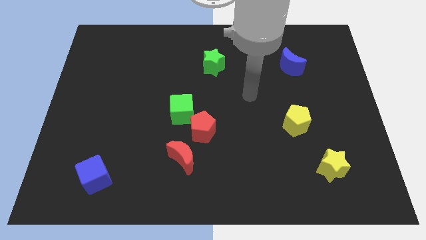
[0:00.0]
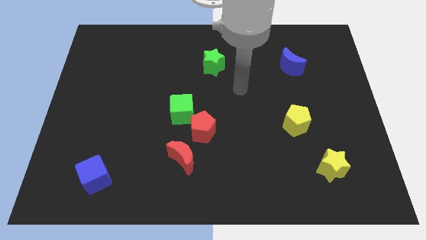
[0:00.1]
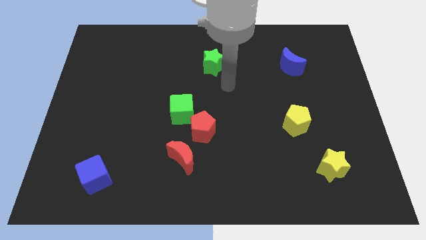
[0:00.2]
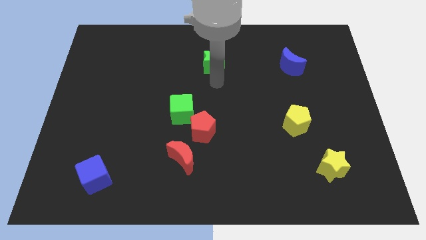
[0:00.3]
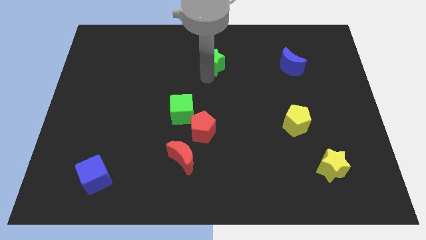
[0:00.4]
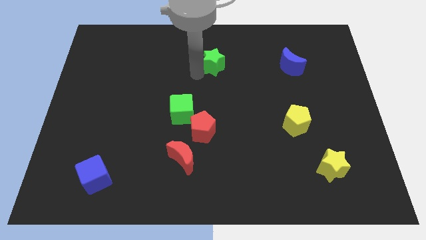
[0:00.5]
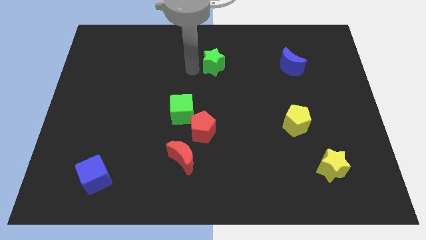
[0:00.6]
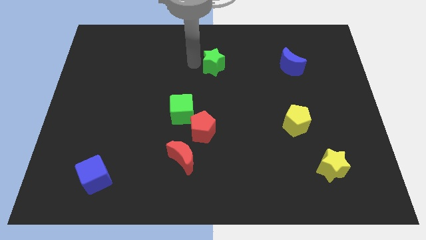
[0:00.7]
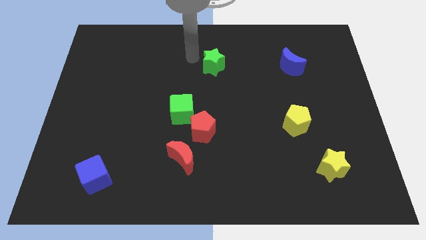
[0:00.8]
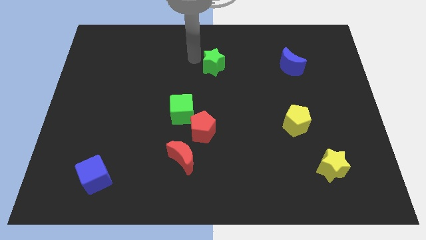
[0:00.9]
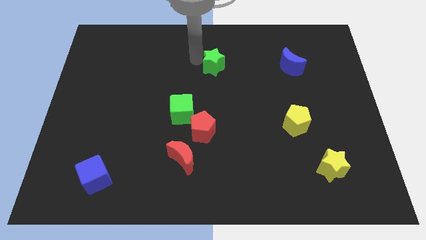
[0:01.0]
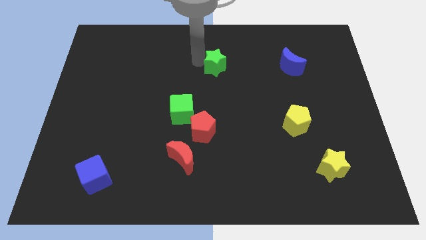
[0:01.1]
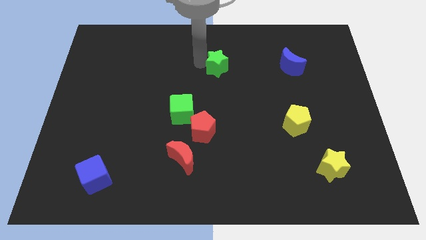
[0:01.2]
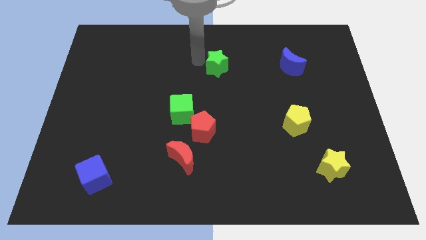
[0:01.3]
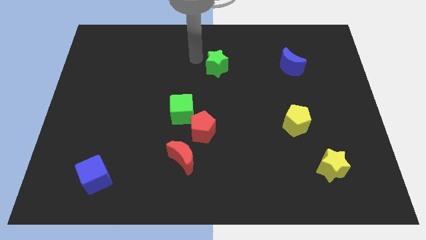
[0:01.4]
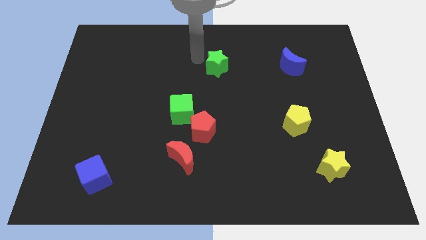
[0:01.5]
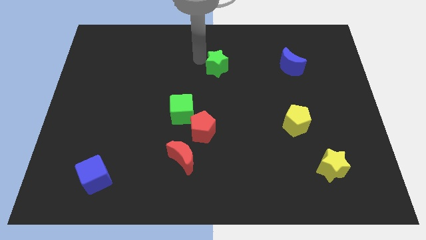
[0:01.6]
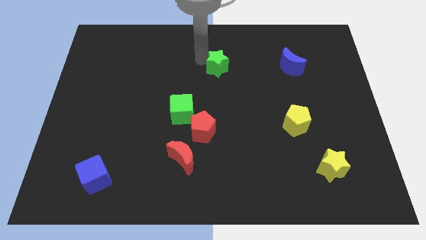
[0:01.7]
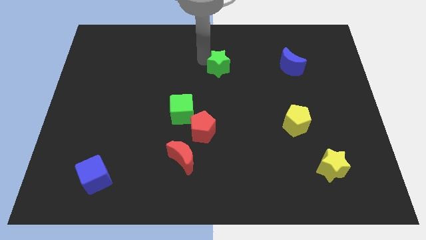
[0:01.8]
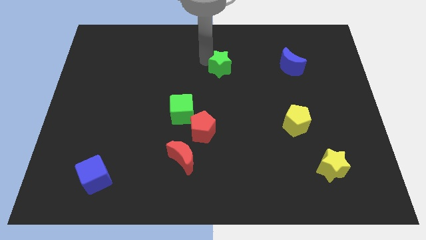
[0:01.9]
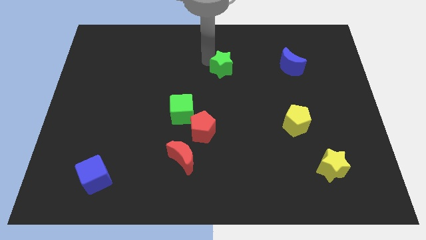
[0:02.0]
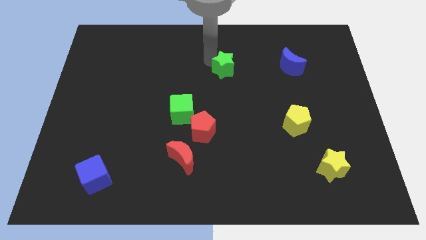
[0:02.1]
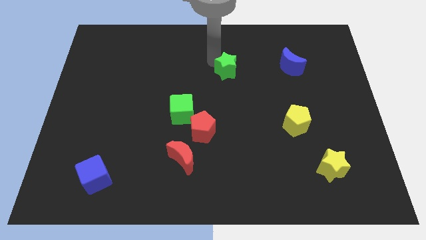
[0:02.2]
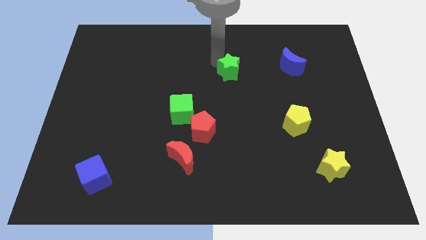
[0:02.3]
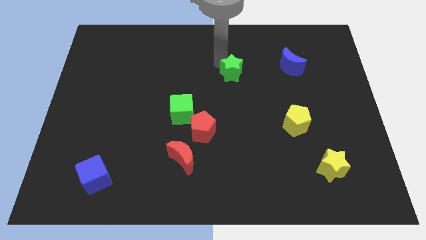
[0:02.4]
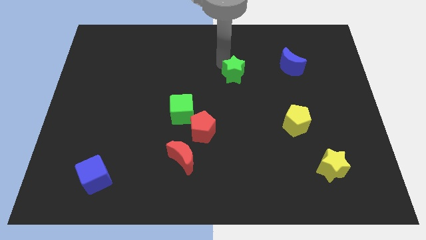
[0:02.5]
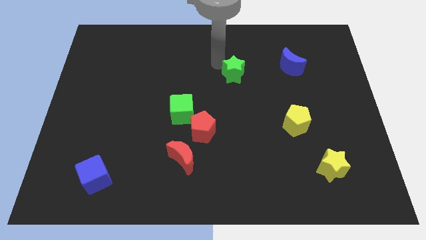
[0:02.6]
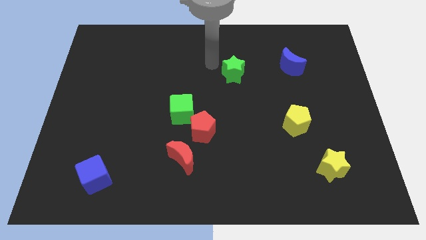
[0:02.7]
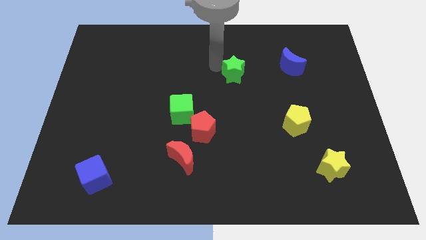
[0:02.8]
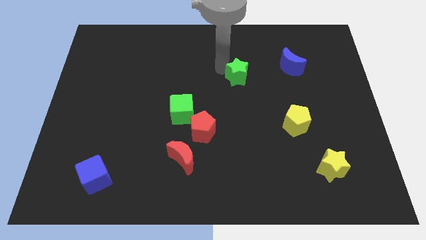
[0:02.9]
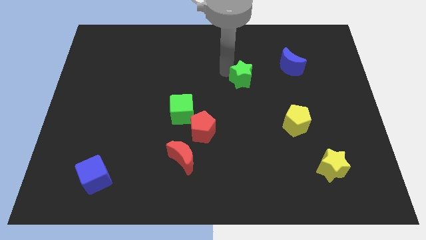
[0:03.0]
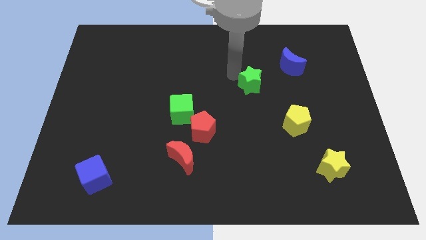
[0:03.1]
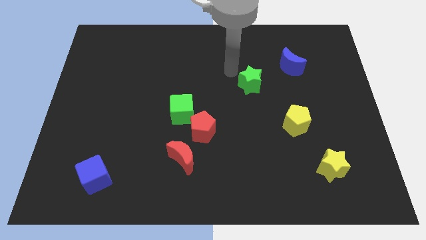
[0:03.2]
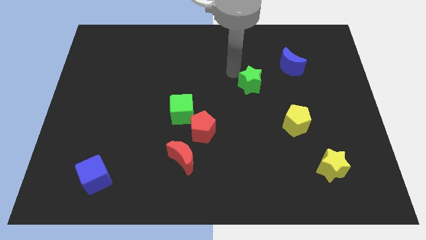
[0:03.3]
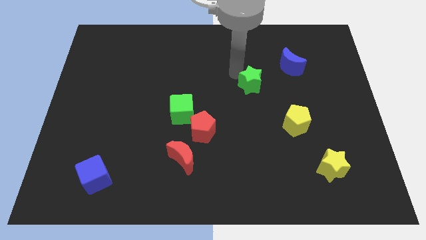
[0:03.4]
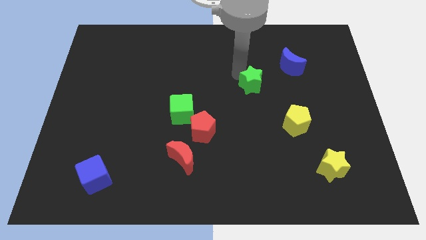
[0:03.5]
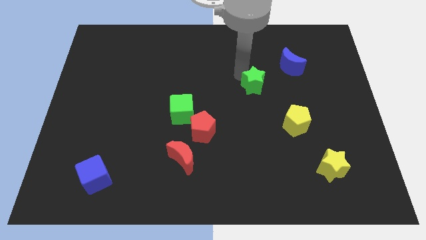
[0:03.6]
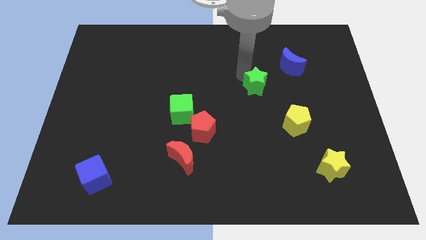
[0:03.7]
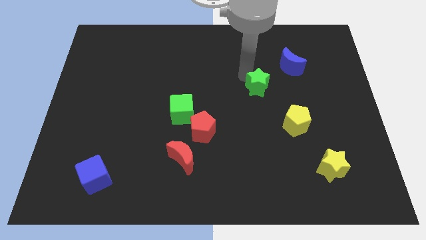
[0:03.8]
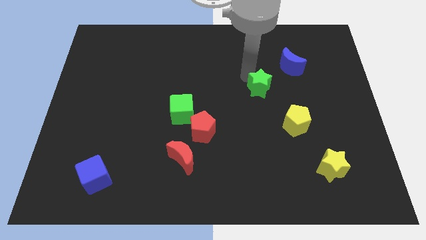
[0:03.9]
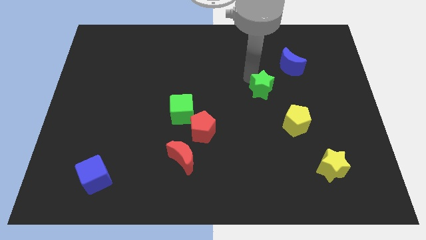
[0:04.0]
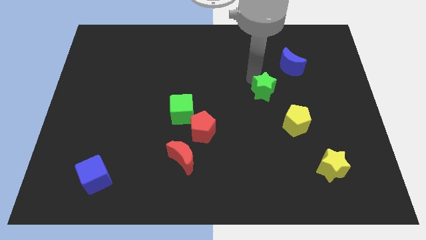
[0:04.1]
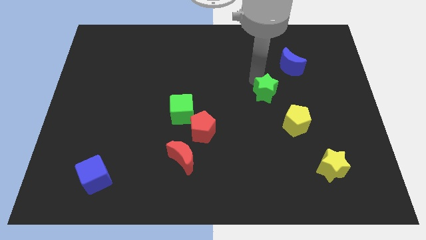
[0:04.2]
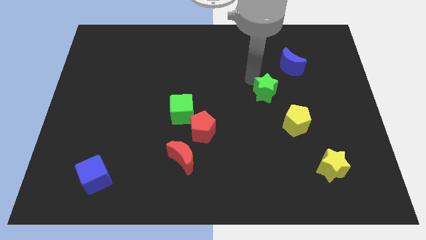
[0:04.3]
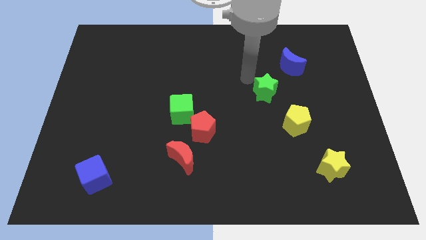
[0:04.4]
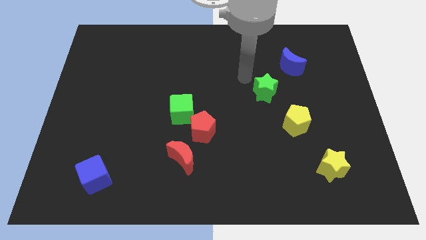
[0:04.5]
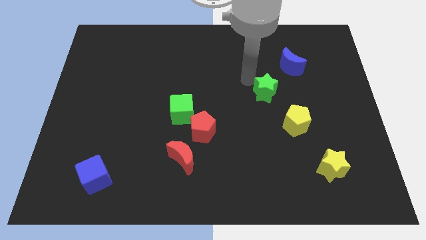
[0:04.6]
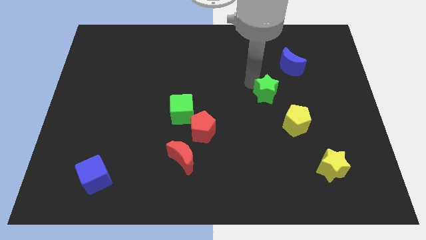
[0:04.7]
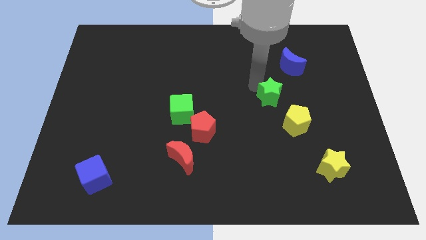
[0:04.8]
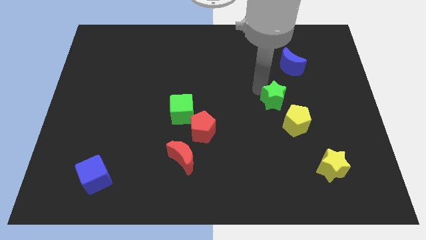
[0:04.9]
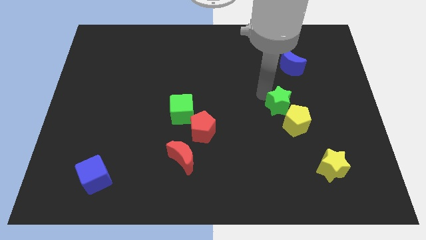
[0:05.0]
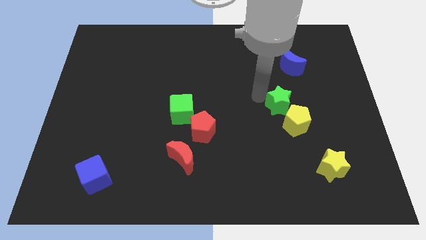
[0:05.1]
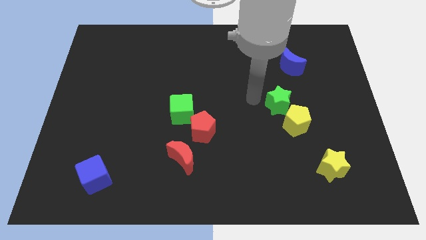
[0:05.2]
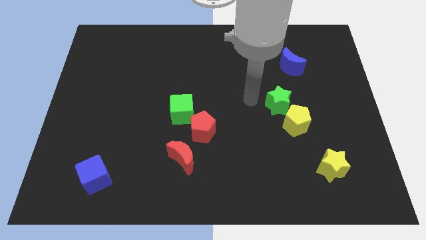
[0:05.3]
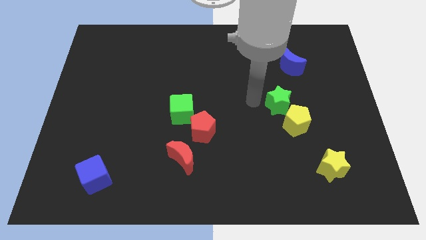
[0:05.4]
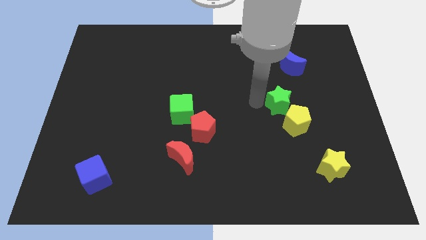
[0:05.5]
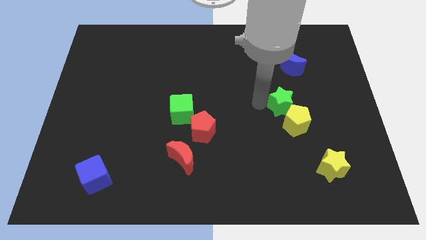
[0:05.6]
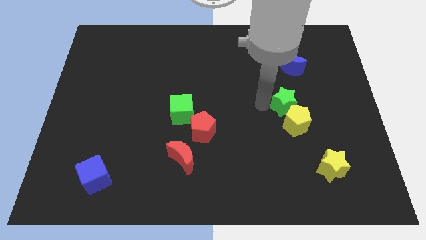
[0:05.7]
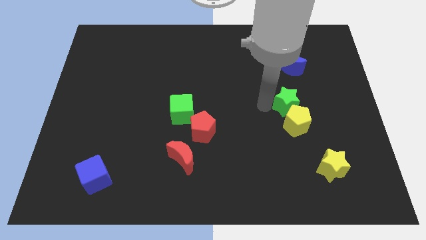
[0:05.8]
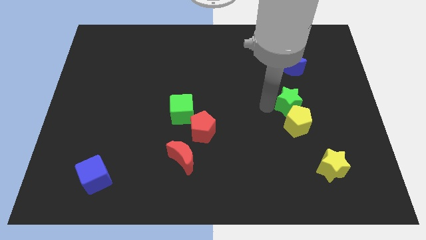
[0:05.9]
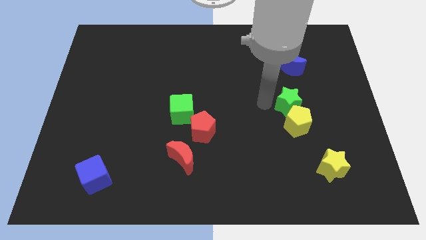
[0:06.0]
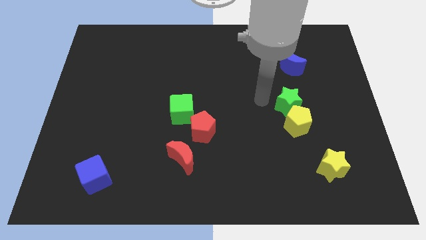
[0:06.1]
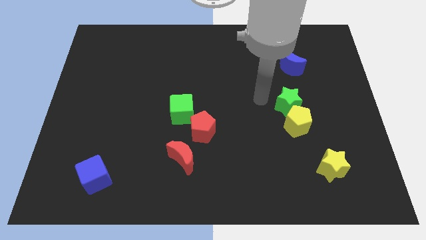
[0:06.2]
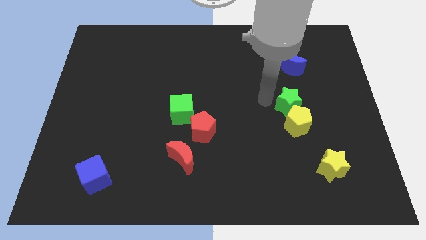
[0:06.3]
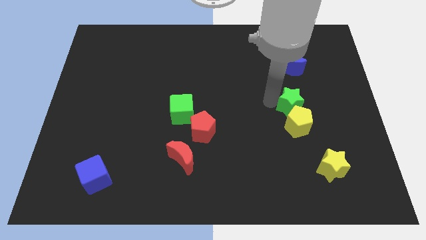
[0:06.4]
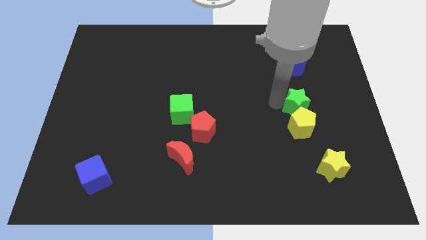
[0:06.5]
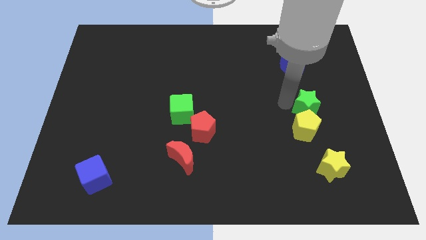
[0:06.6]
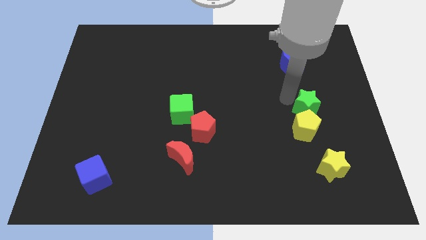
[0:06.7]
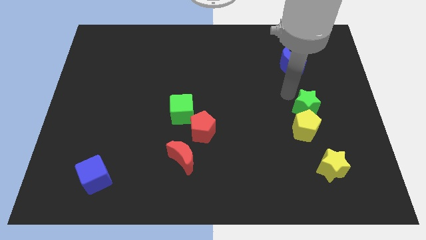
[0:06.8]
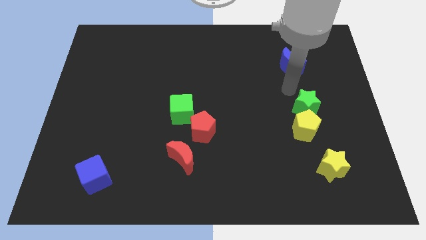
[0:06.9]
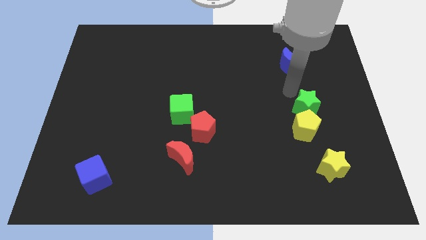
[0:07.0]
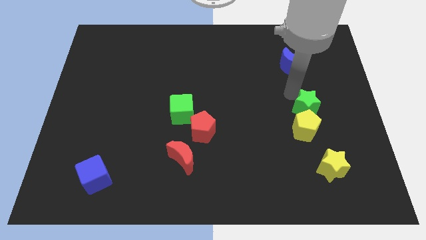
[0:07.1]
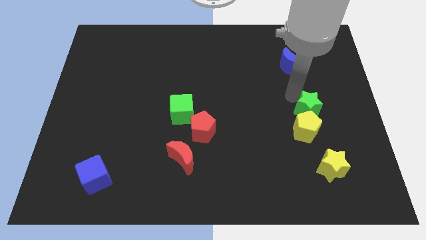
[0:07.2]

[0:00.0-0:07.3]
move the green star above the yellow star
